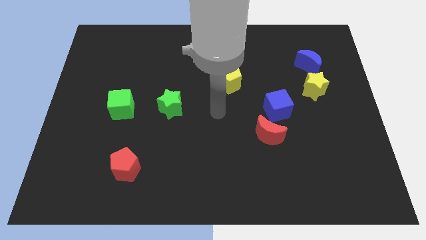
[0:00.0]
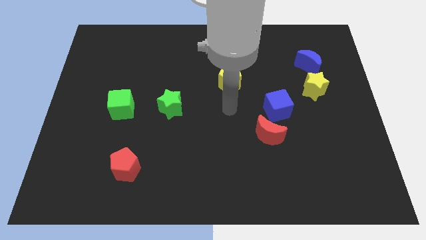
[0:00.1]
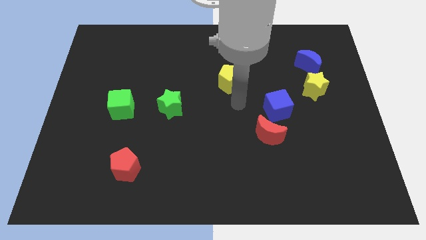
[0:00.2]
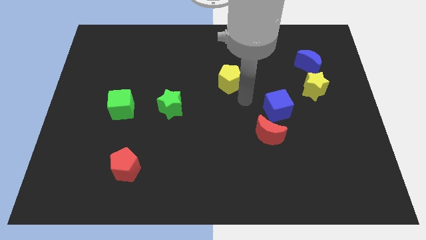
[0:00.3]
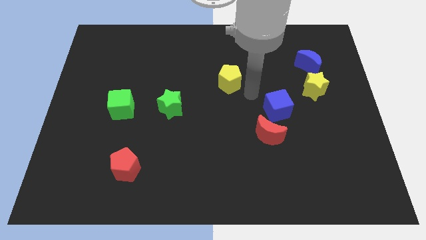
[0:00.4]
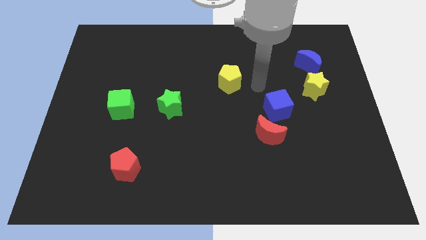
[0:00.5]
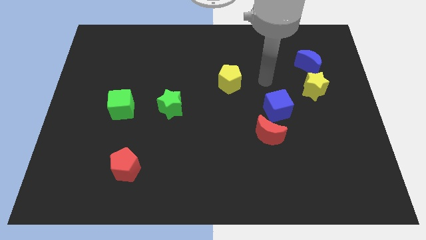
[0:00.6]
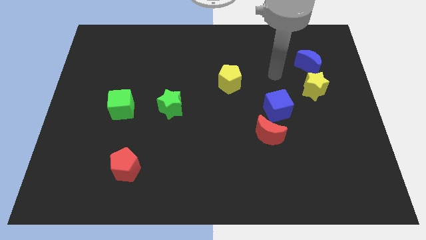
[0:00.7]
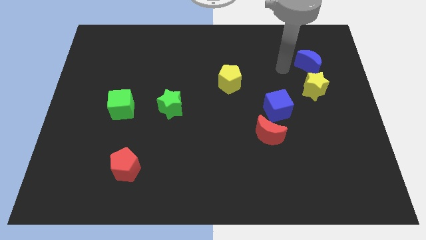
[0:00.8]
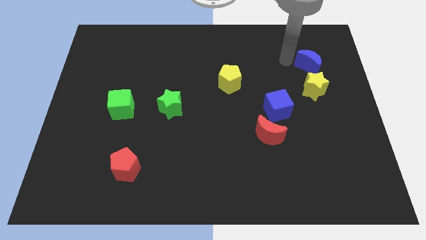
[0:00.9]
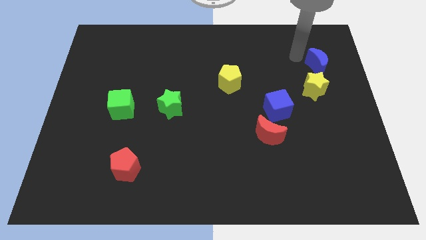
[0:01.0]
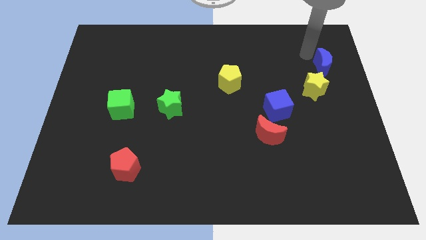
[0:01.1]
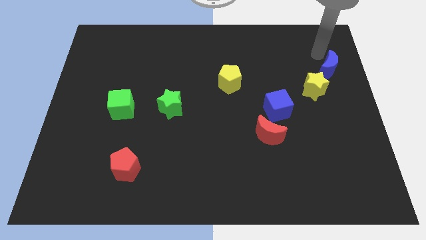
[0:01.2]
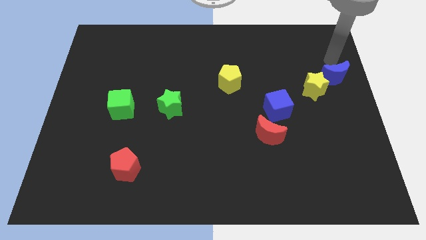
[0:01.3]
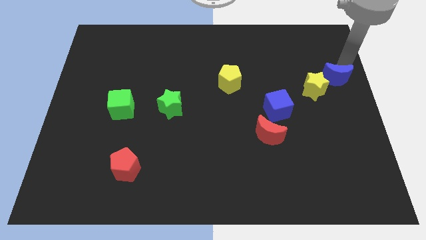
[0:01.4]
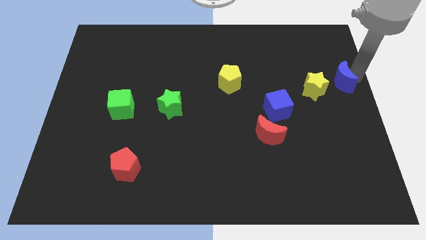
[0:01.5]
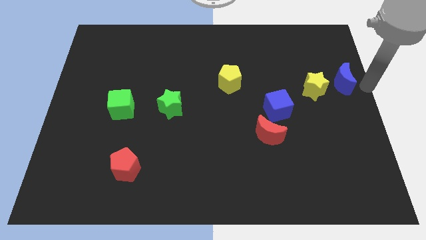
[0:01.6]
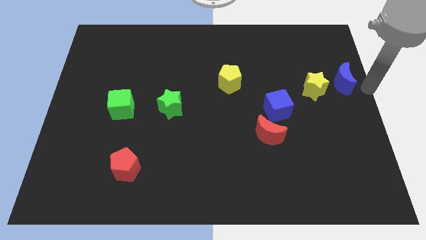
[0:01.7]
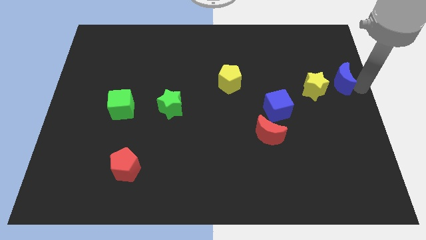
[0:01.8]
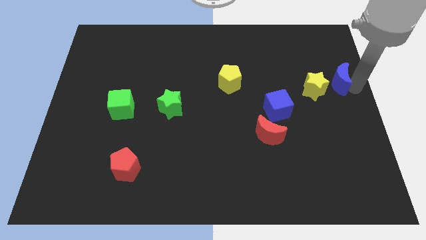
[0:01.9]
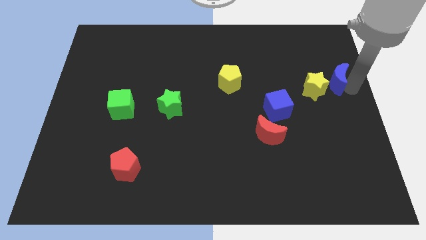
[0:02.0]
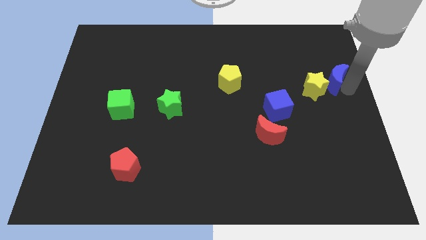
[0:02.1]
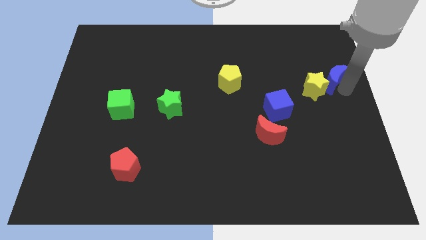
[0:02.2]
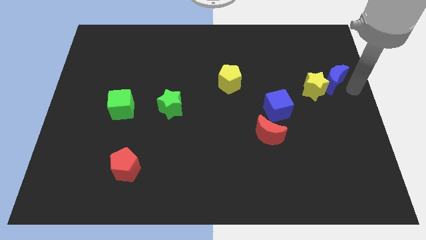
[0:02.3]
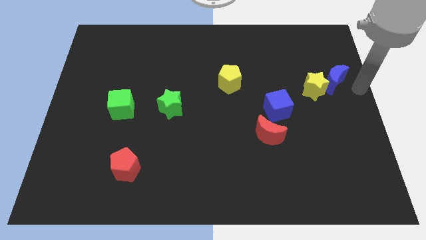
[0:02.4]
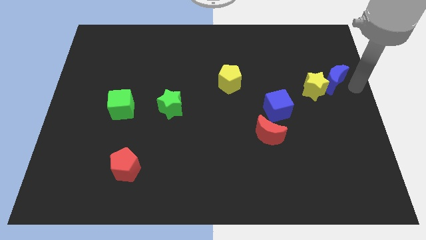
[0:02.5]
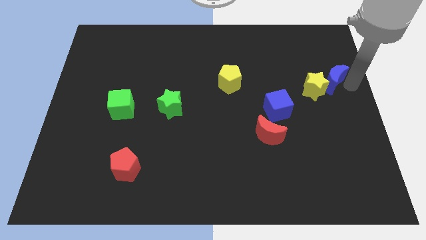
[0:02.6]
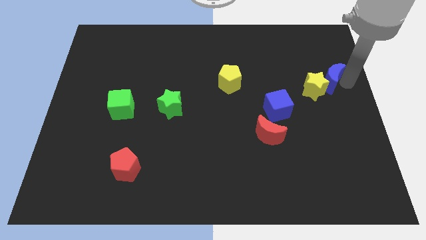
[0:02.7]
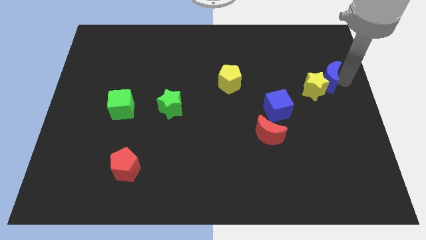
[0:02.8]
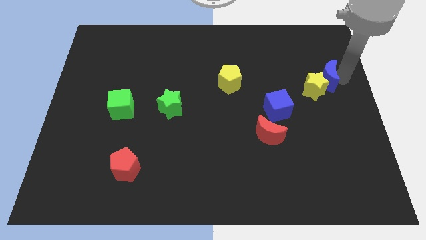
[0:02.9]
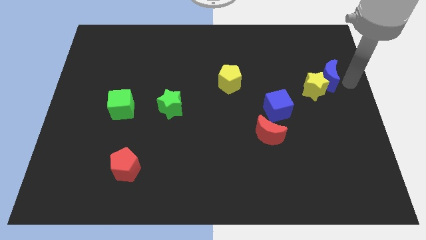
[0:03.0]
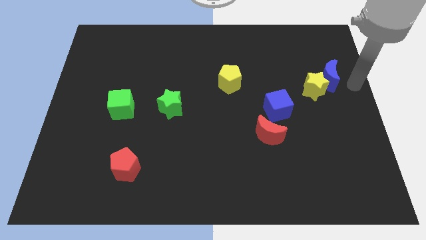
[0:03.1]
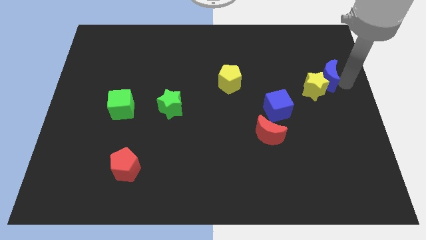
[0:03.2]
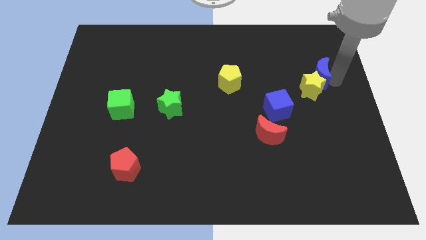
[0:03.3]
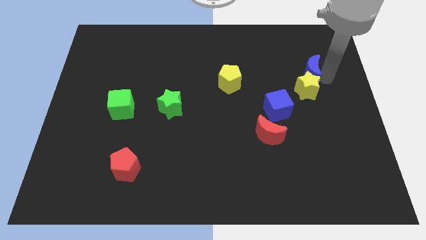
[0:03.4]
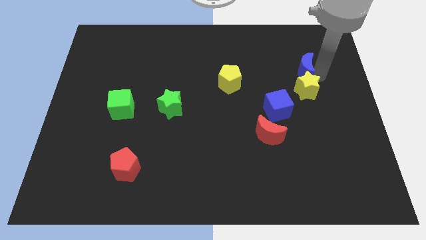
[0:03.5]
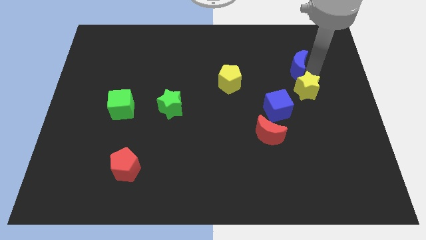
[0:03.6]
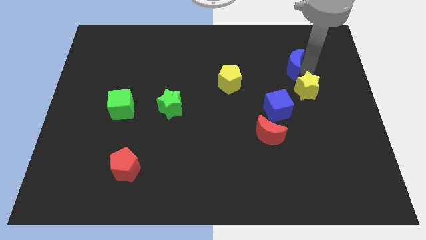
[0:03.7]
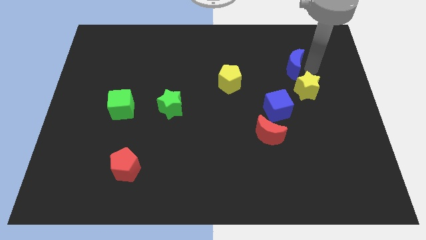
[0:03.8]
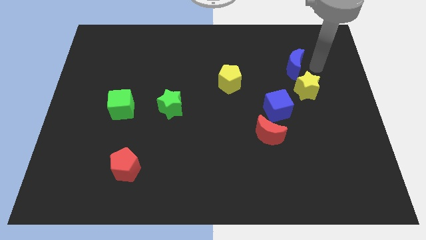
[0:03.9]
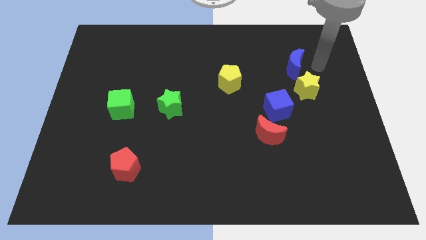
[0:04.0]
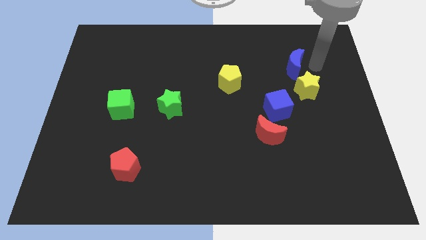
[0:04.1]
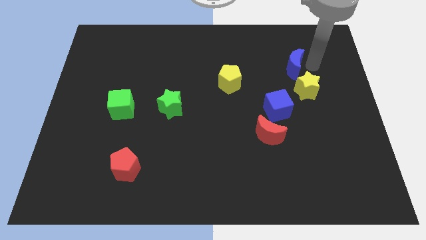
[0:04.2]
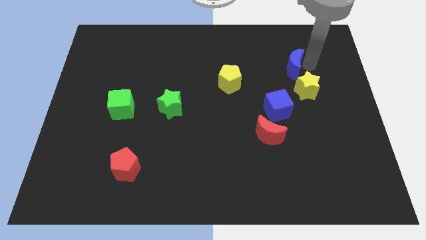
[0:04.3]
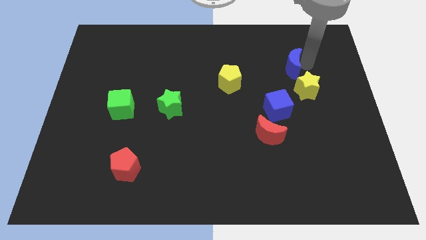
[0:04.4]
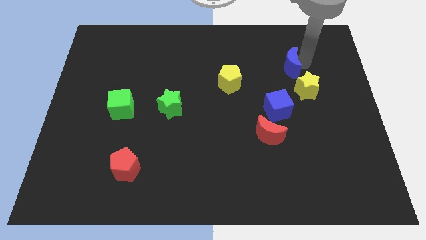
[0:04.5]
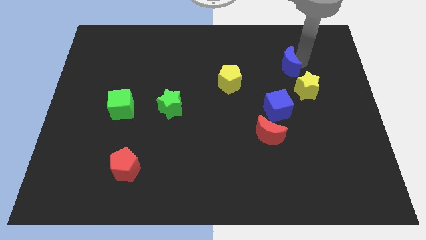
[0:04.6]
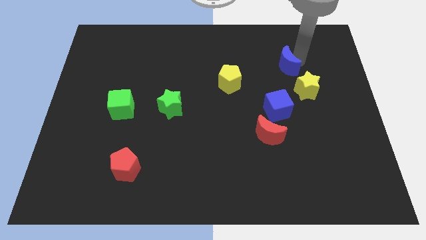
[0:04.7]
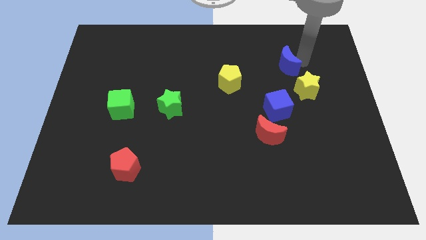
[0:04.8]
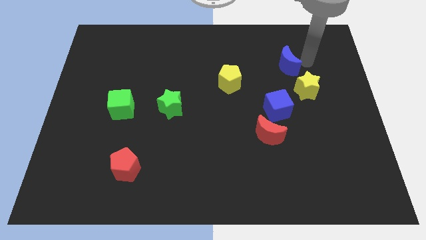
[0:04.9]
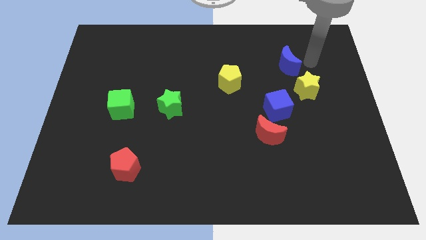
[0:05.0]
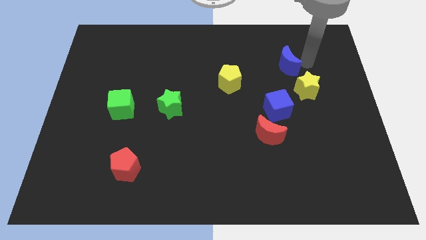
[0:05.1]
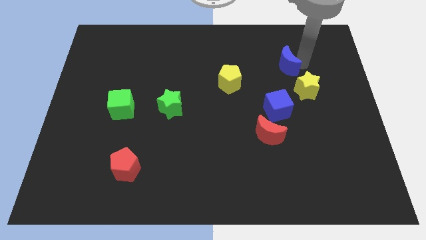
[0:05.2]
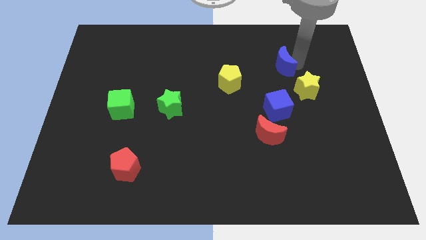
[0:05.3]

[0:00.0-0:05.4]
move the blue moon to the left somewhat

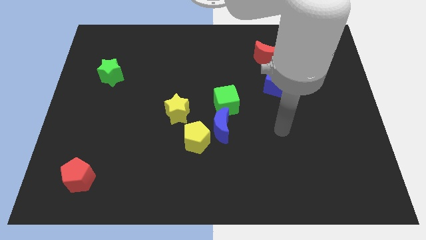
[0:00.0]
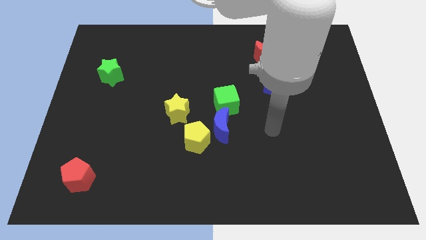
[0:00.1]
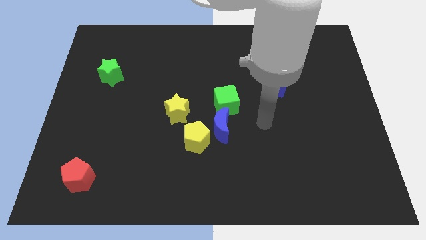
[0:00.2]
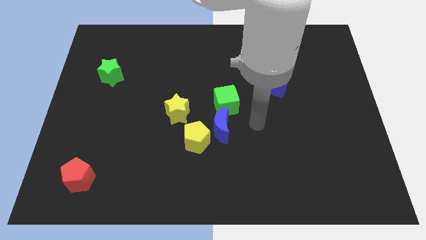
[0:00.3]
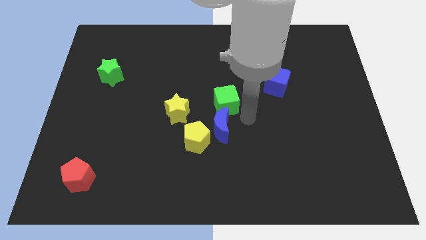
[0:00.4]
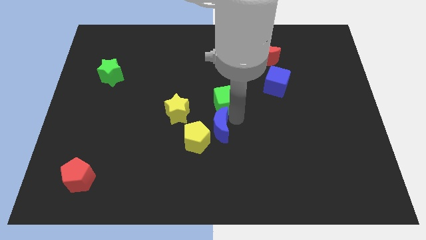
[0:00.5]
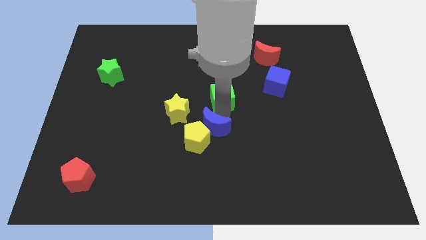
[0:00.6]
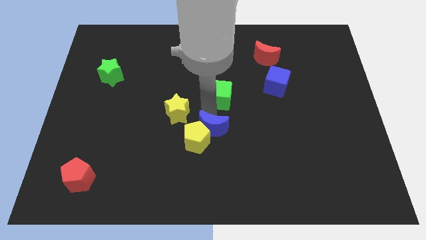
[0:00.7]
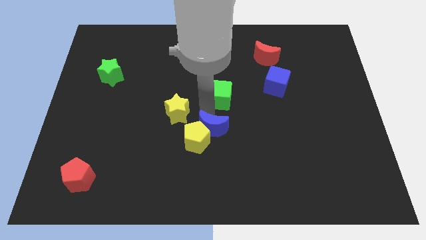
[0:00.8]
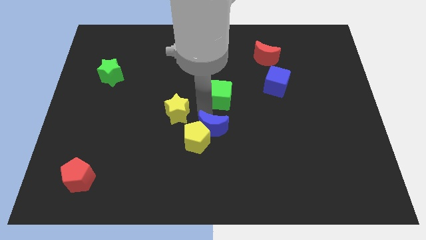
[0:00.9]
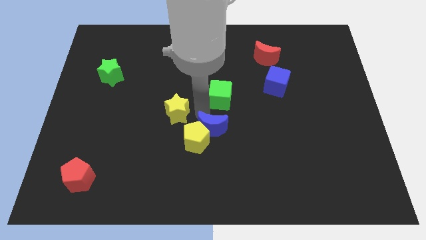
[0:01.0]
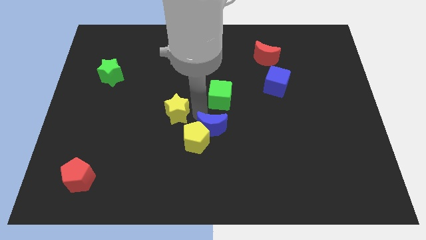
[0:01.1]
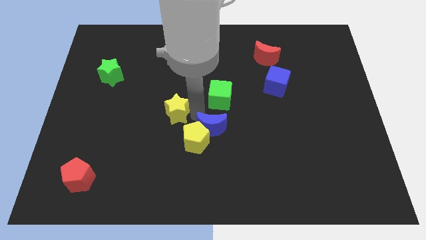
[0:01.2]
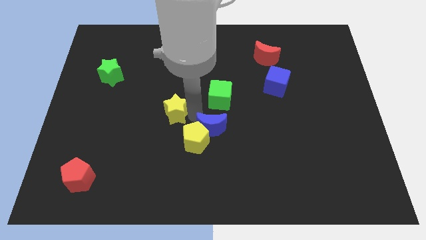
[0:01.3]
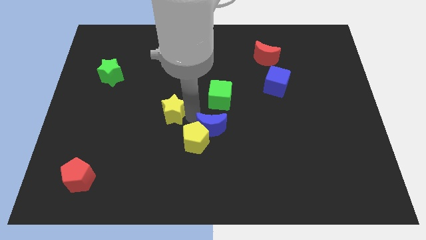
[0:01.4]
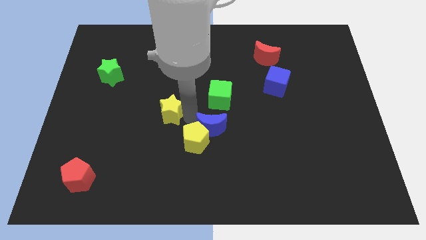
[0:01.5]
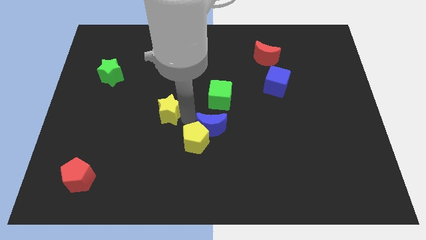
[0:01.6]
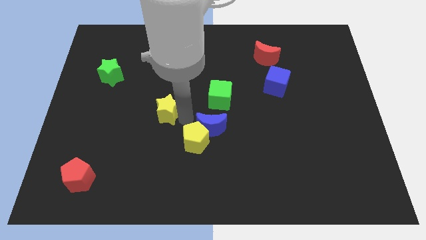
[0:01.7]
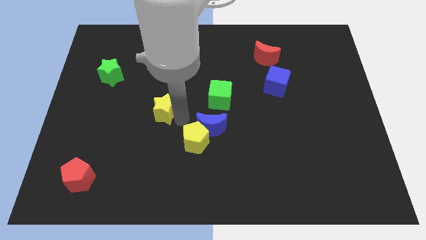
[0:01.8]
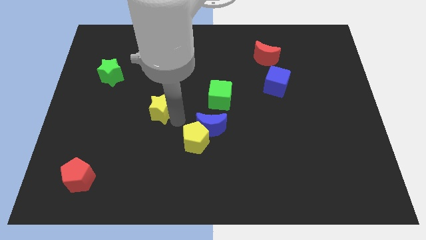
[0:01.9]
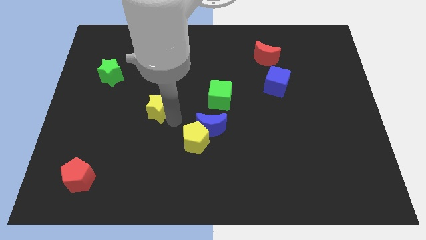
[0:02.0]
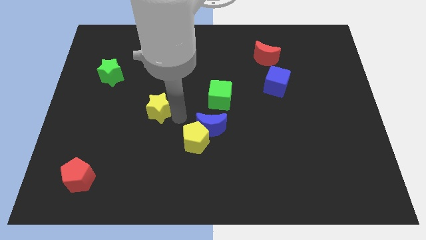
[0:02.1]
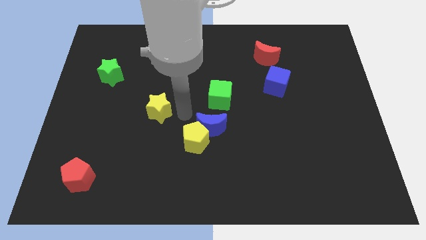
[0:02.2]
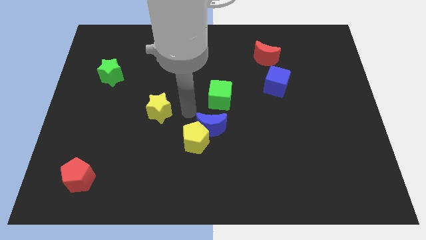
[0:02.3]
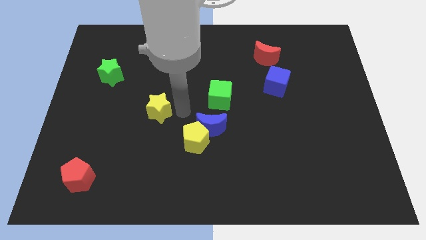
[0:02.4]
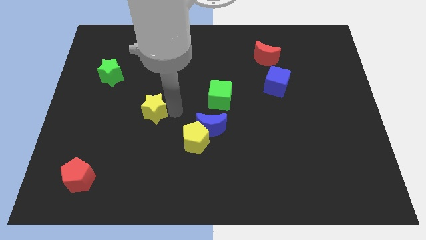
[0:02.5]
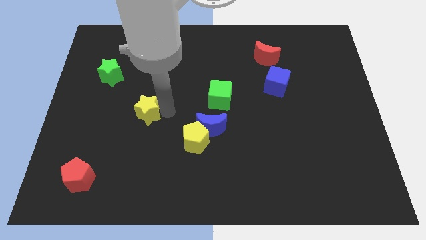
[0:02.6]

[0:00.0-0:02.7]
slightly push the yellow star left
